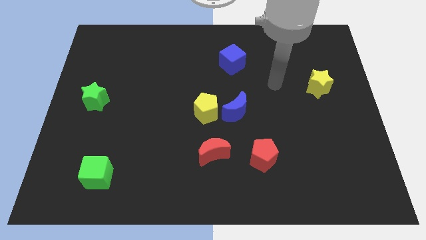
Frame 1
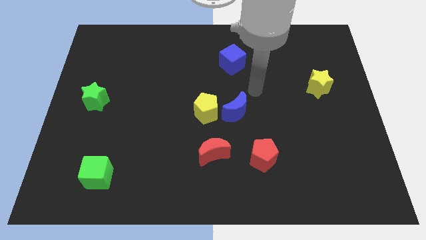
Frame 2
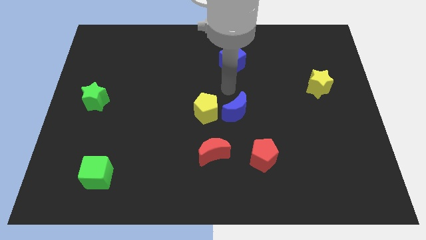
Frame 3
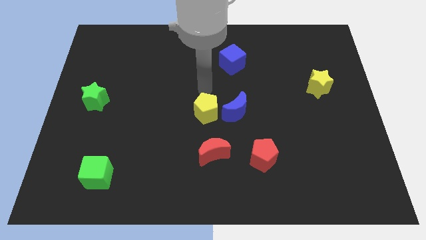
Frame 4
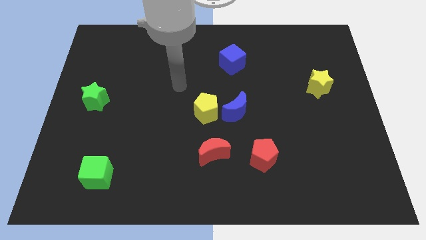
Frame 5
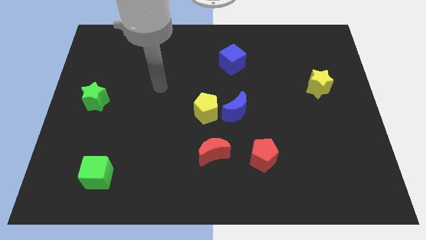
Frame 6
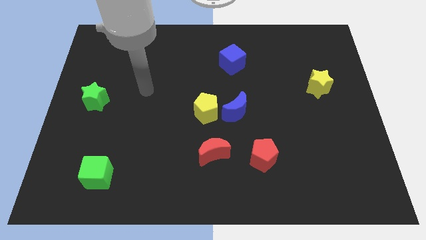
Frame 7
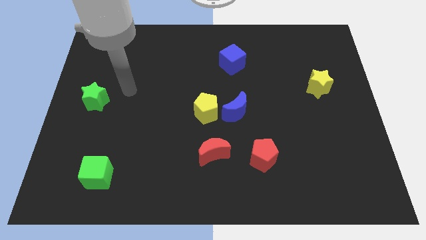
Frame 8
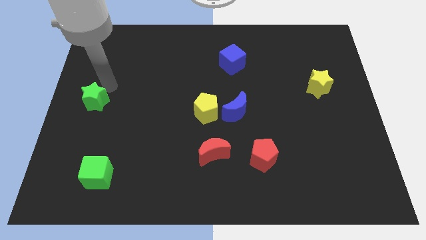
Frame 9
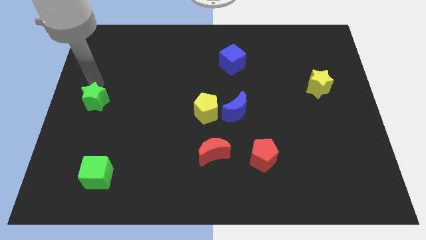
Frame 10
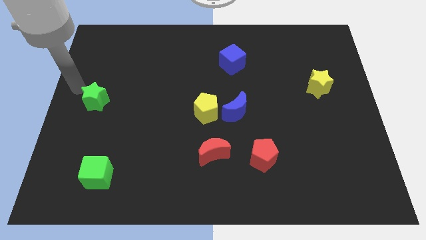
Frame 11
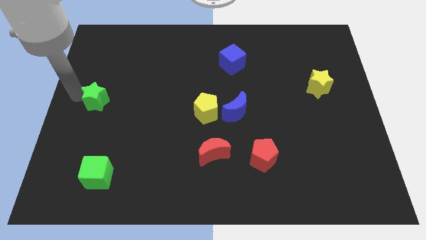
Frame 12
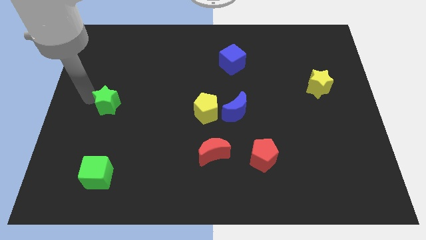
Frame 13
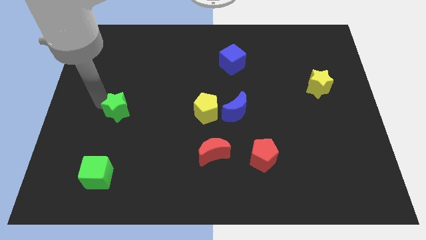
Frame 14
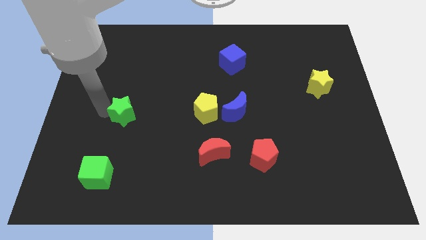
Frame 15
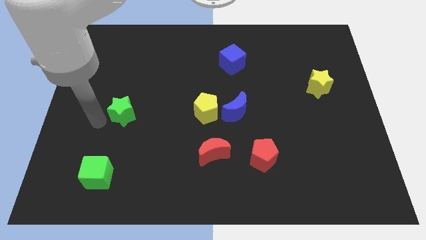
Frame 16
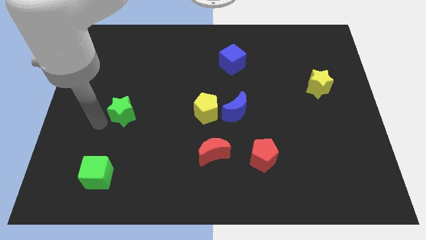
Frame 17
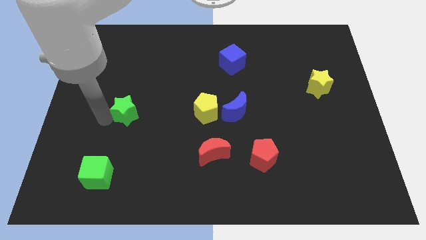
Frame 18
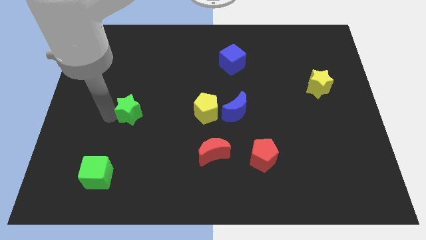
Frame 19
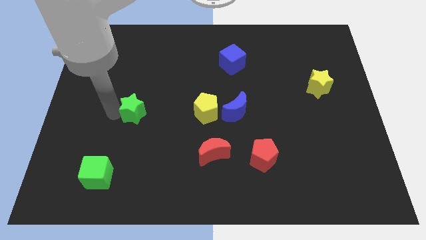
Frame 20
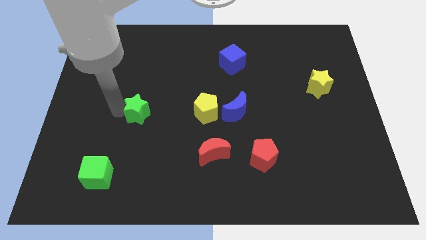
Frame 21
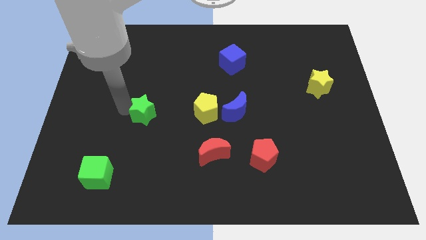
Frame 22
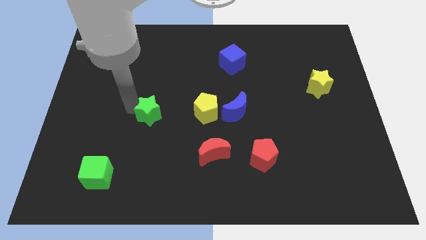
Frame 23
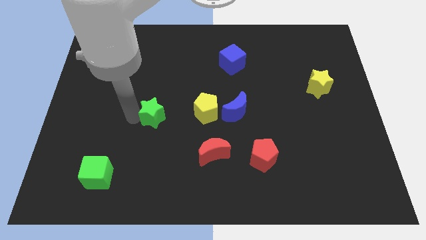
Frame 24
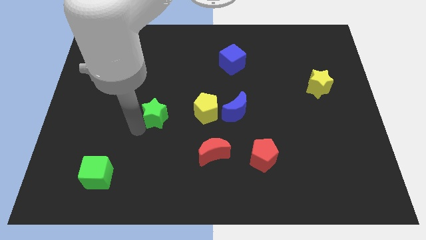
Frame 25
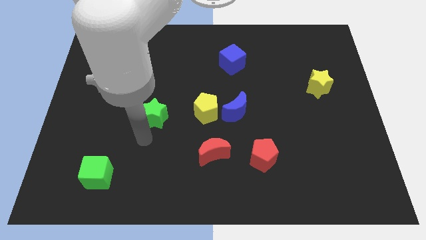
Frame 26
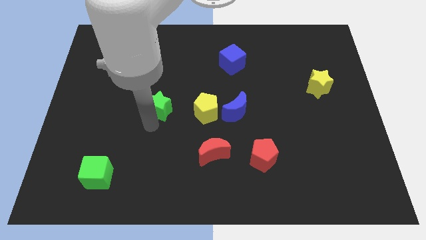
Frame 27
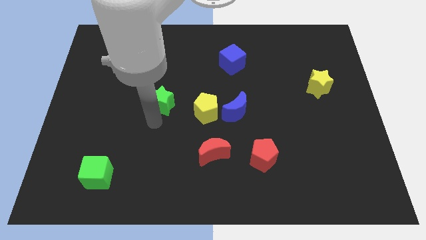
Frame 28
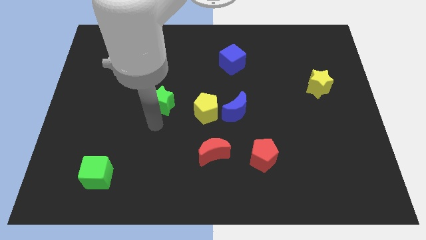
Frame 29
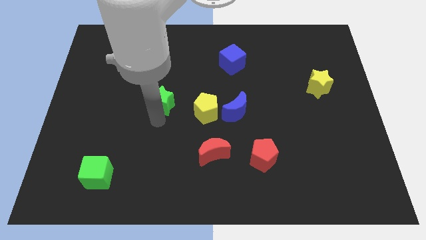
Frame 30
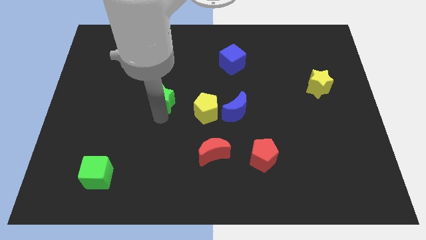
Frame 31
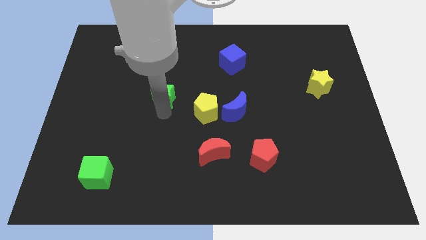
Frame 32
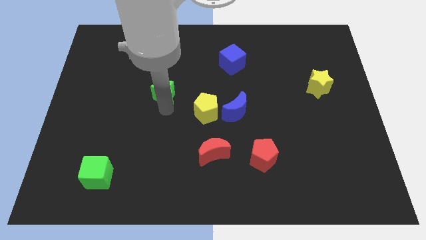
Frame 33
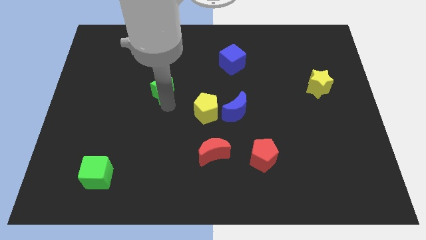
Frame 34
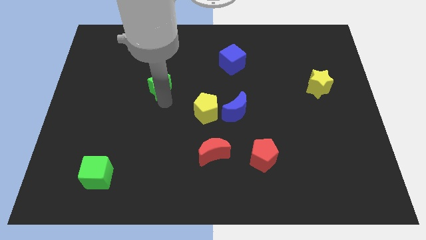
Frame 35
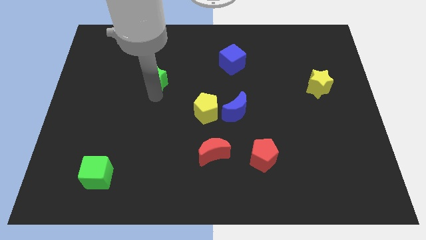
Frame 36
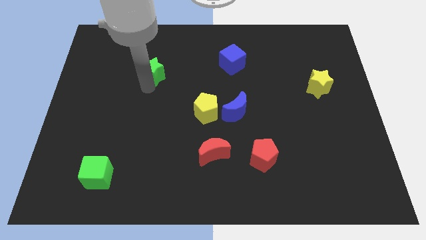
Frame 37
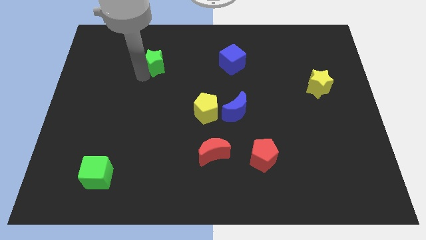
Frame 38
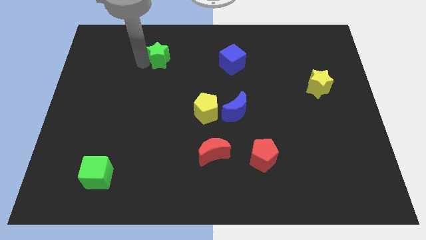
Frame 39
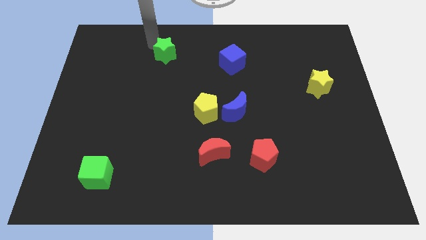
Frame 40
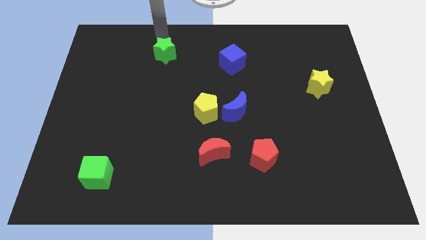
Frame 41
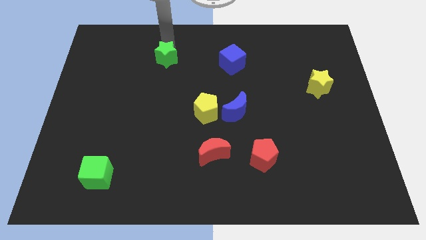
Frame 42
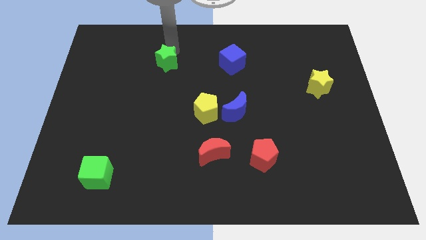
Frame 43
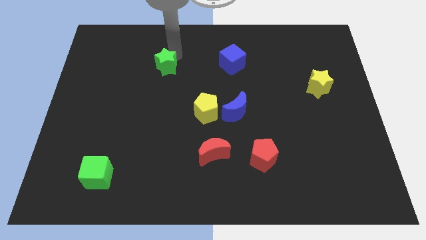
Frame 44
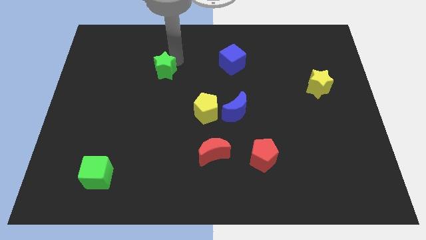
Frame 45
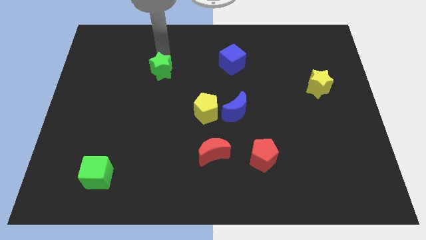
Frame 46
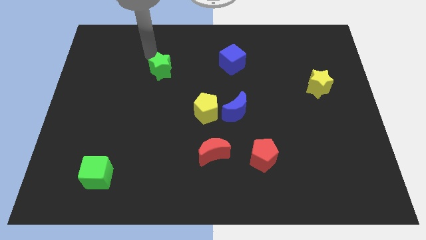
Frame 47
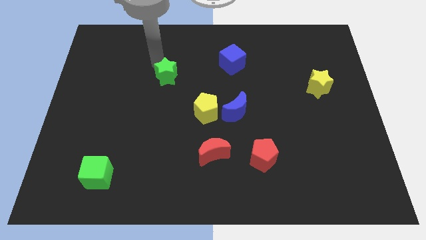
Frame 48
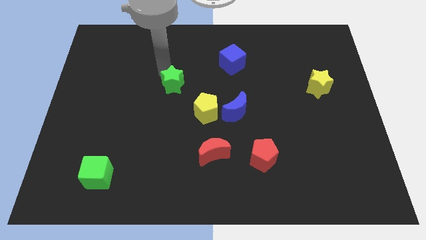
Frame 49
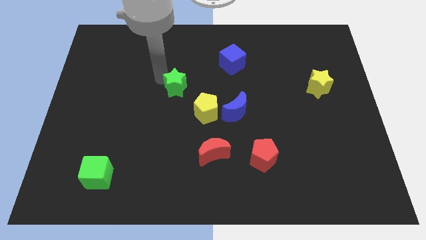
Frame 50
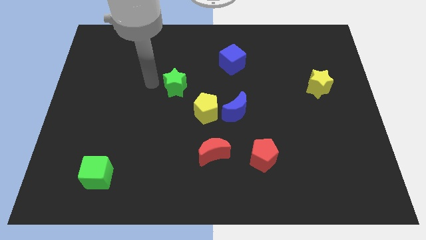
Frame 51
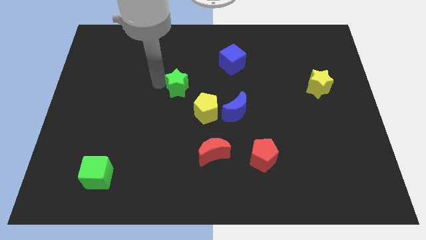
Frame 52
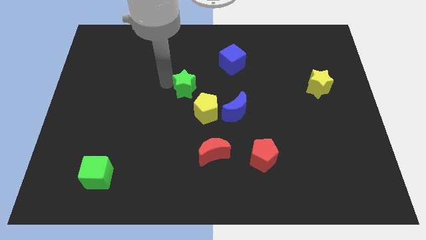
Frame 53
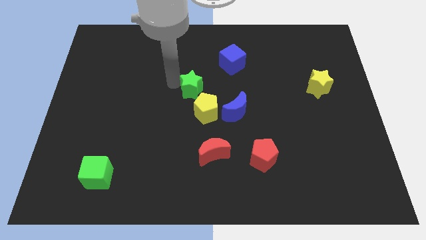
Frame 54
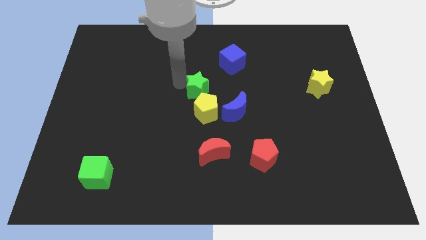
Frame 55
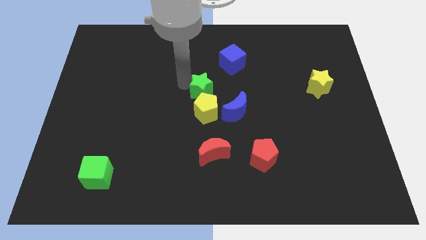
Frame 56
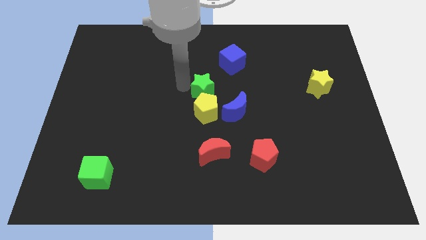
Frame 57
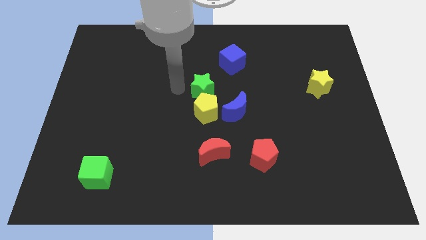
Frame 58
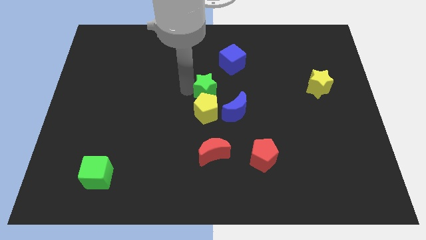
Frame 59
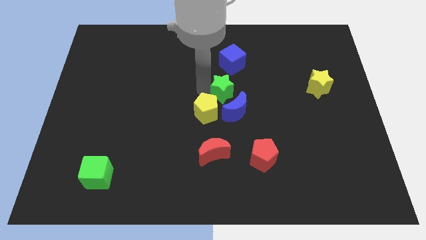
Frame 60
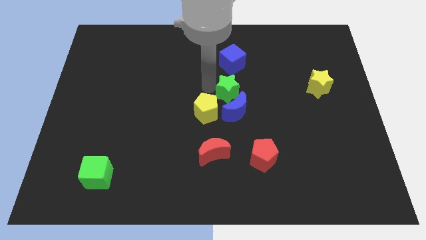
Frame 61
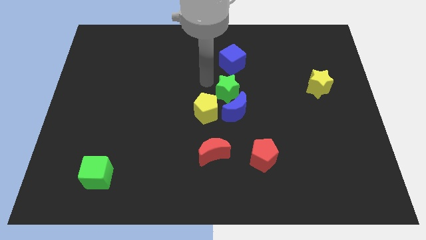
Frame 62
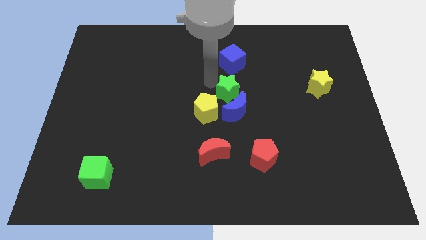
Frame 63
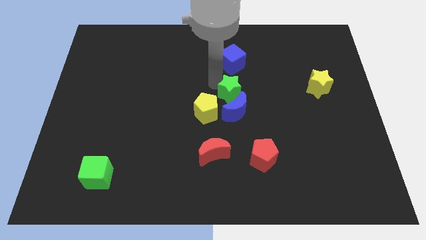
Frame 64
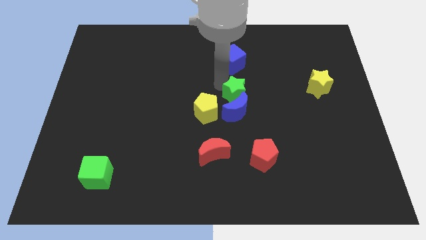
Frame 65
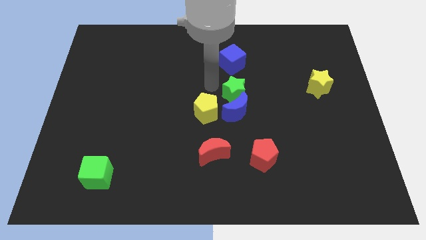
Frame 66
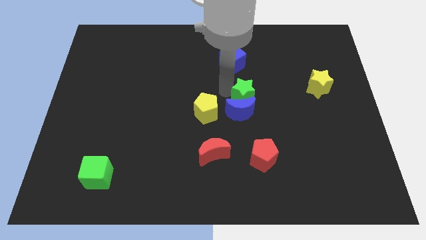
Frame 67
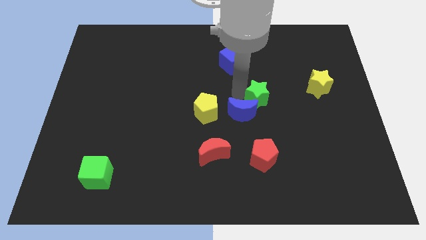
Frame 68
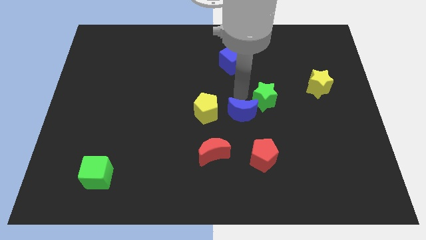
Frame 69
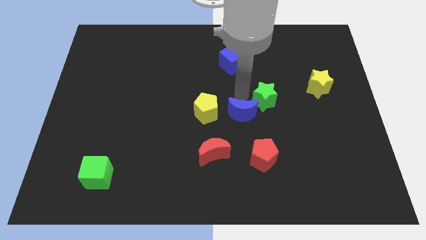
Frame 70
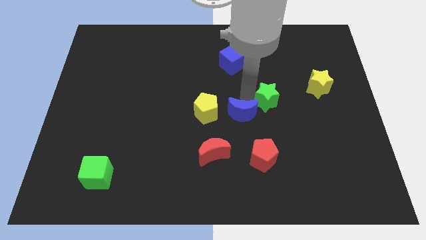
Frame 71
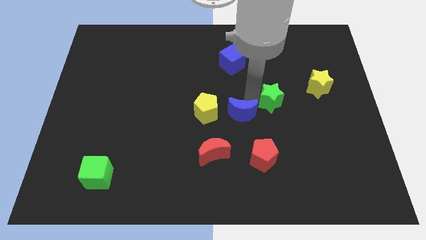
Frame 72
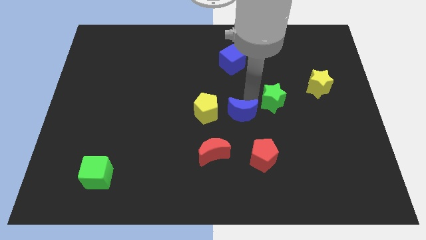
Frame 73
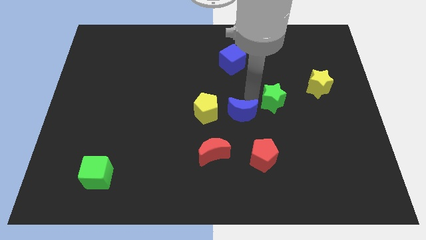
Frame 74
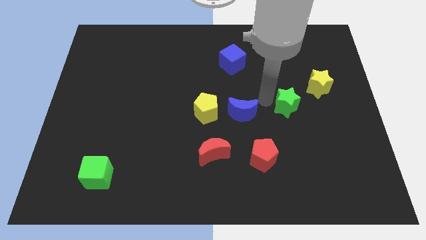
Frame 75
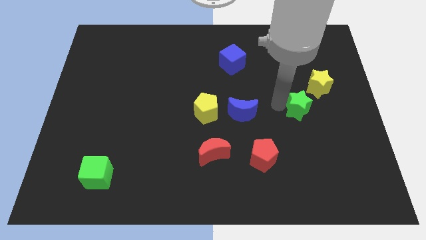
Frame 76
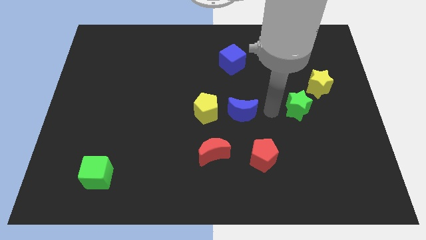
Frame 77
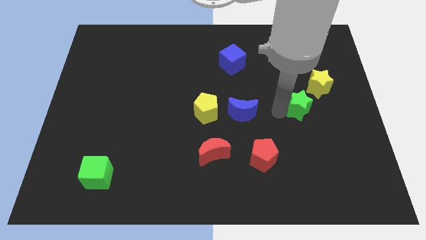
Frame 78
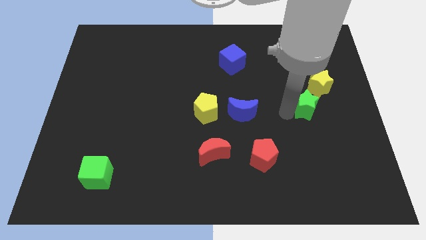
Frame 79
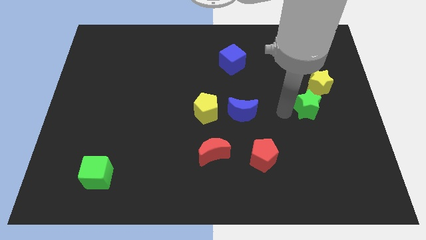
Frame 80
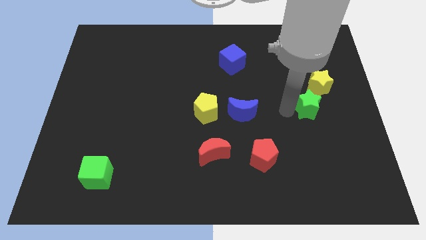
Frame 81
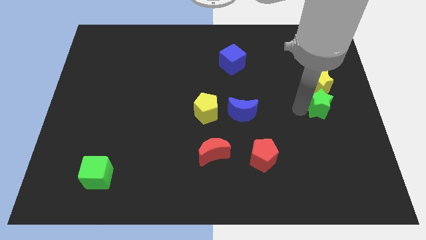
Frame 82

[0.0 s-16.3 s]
push the green star to the right side of the board
